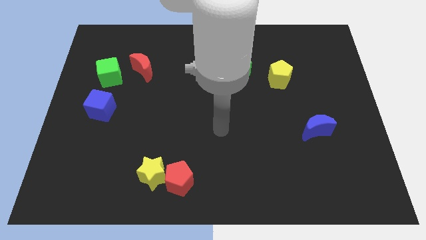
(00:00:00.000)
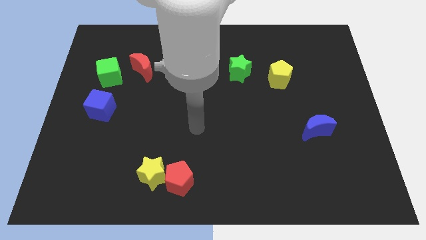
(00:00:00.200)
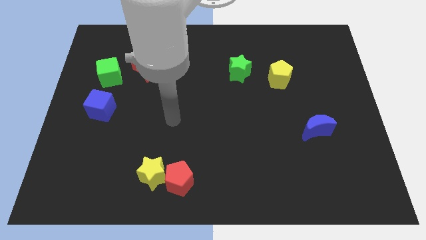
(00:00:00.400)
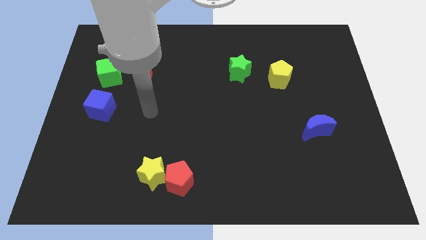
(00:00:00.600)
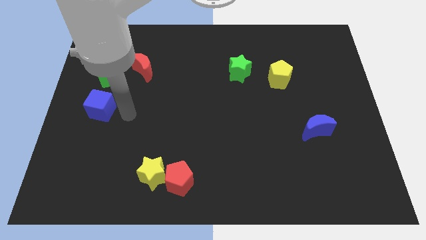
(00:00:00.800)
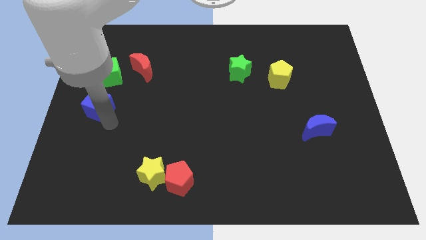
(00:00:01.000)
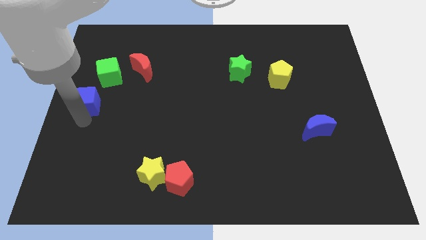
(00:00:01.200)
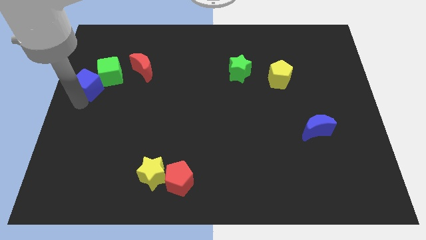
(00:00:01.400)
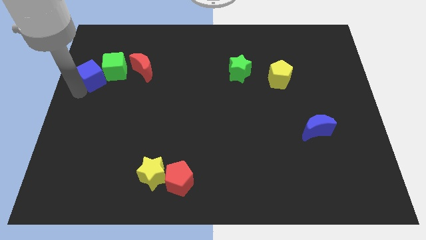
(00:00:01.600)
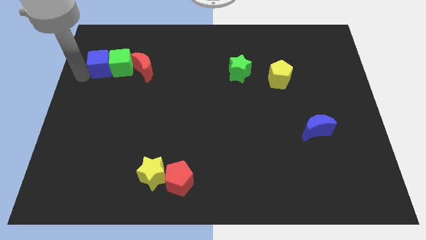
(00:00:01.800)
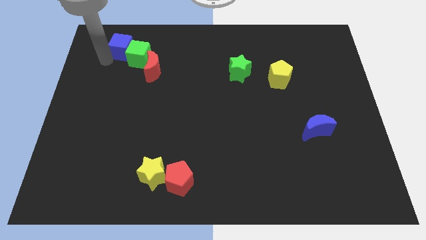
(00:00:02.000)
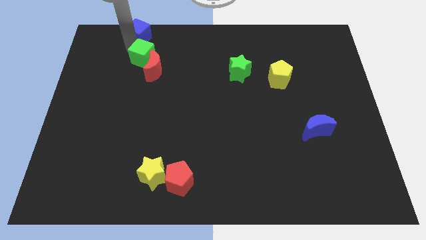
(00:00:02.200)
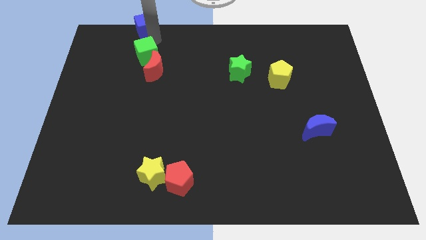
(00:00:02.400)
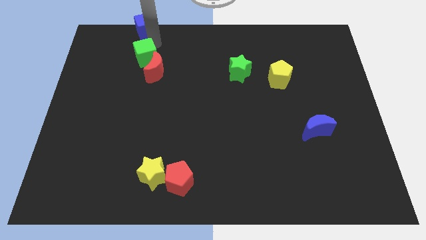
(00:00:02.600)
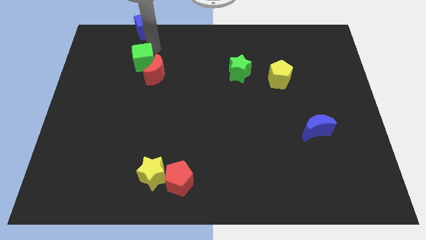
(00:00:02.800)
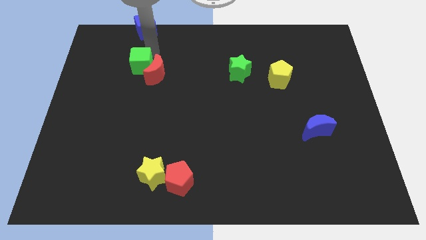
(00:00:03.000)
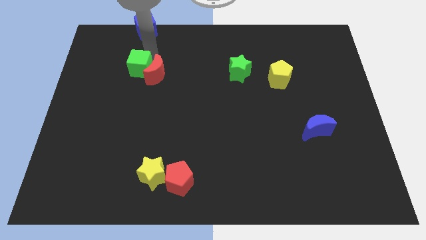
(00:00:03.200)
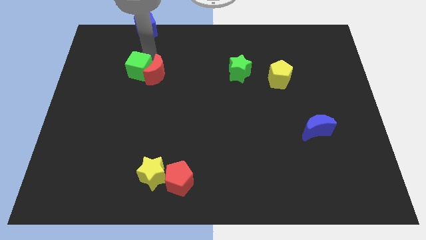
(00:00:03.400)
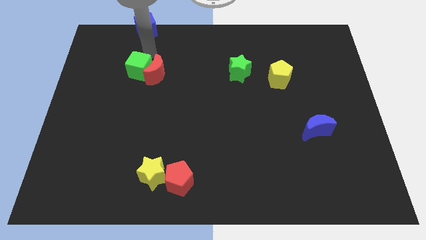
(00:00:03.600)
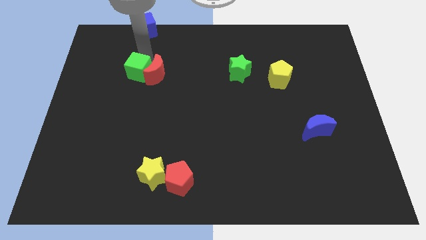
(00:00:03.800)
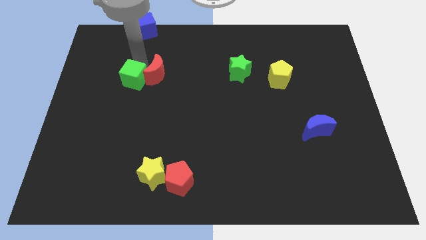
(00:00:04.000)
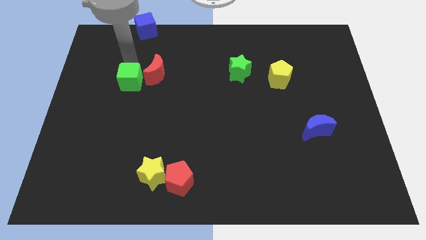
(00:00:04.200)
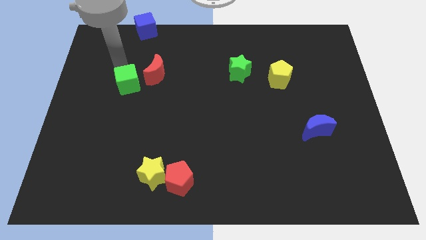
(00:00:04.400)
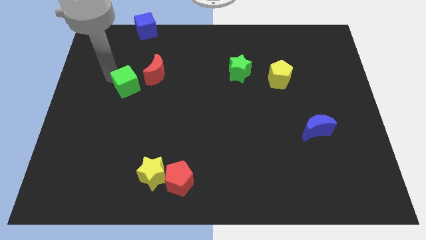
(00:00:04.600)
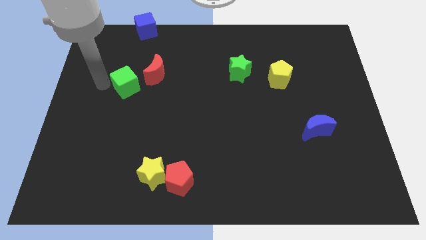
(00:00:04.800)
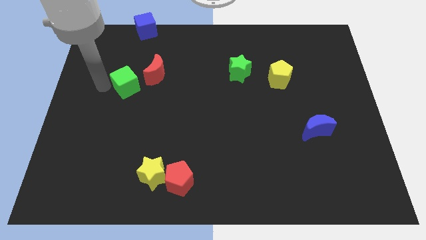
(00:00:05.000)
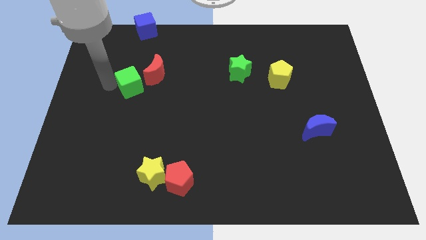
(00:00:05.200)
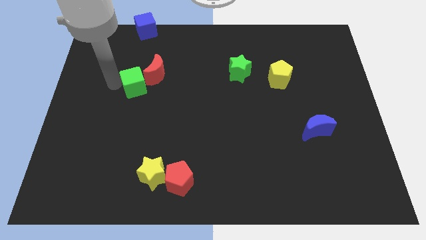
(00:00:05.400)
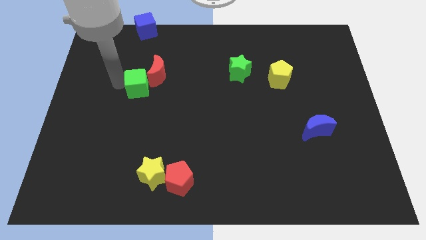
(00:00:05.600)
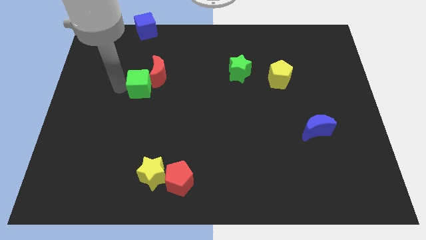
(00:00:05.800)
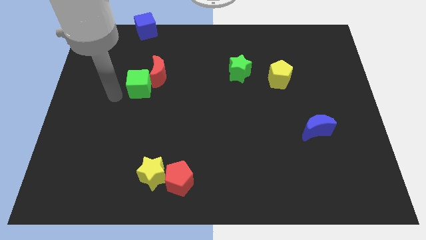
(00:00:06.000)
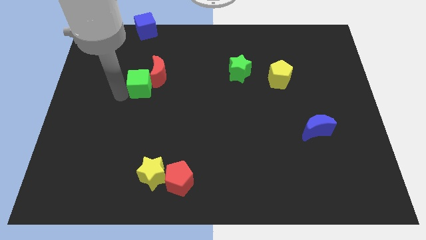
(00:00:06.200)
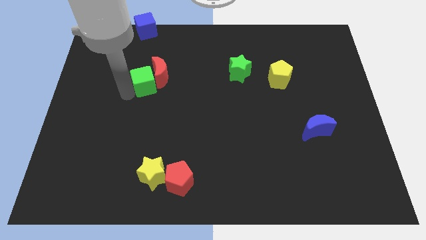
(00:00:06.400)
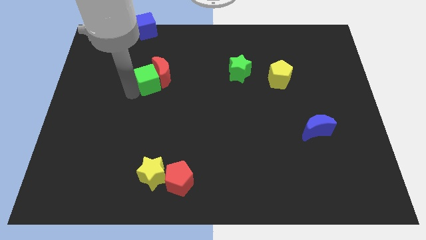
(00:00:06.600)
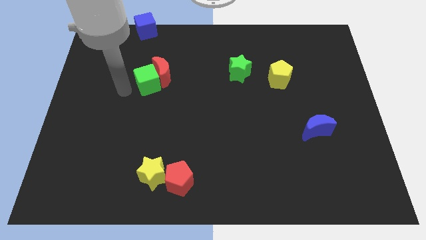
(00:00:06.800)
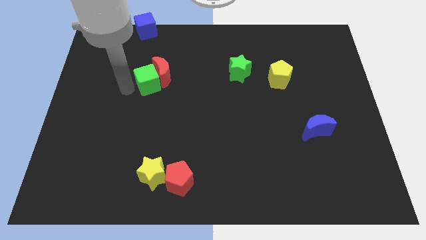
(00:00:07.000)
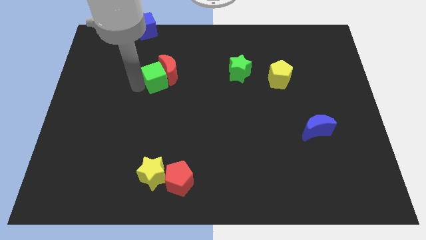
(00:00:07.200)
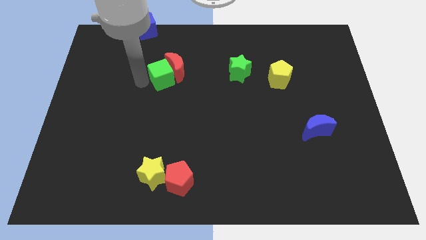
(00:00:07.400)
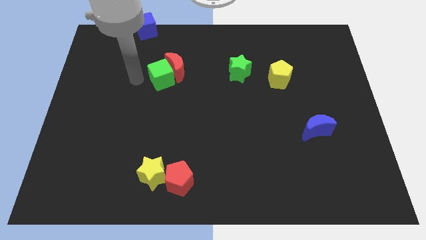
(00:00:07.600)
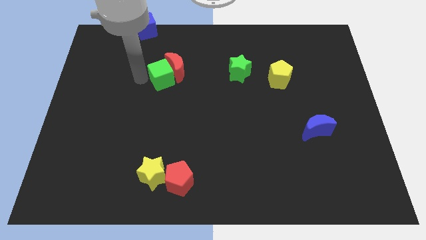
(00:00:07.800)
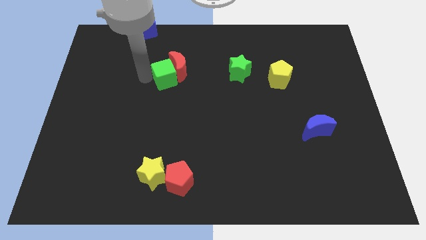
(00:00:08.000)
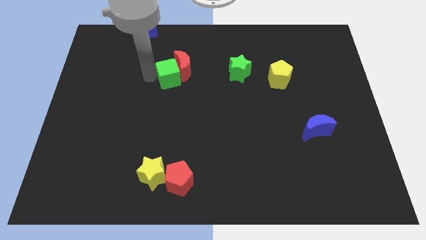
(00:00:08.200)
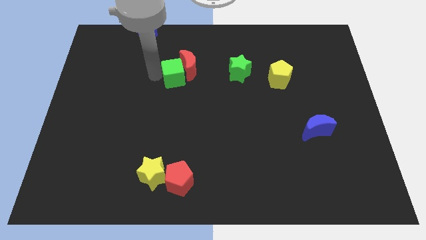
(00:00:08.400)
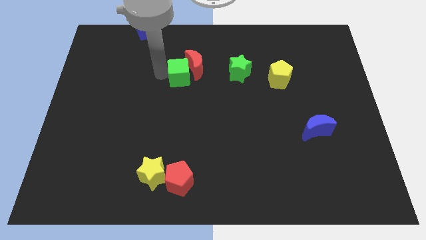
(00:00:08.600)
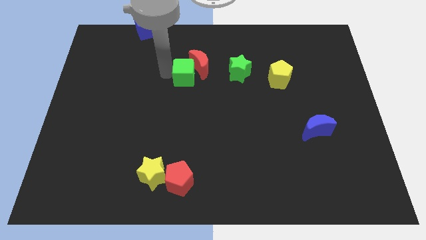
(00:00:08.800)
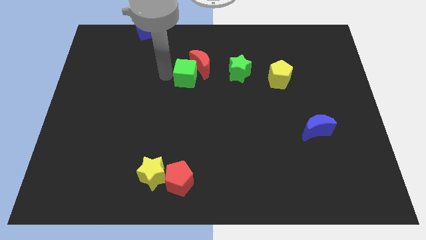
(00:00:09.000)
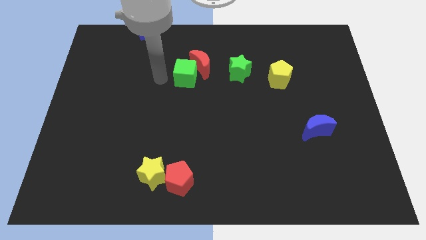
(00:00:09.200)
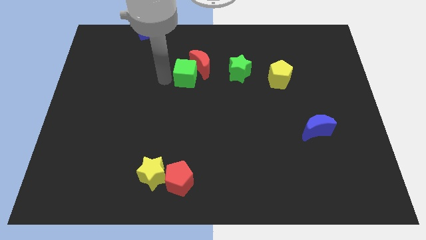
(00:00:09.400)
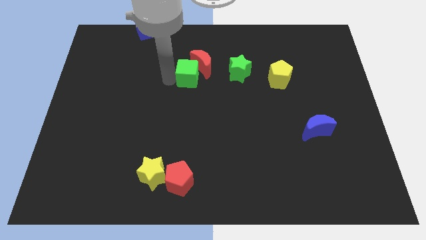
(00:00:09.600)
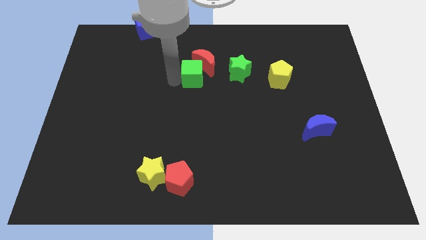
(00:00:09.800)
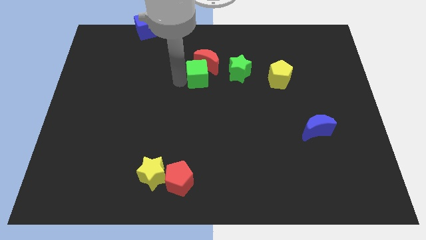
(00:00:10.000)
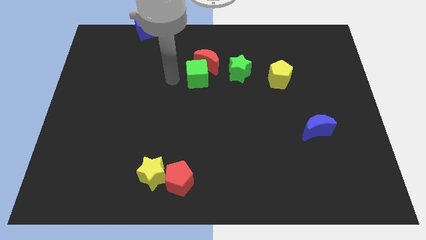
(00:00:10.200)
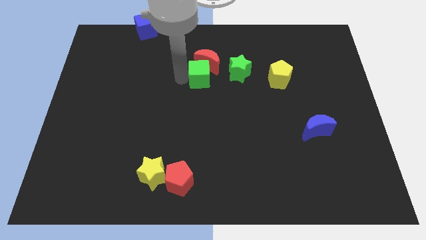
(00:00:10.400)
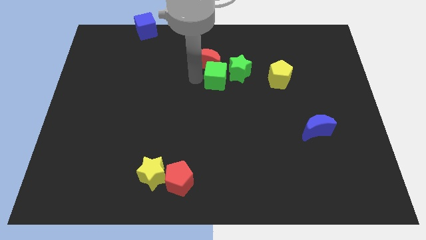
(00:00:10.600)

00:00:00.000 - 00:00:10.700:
push the green cube to the left side of the yellow pentagon

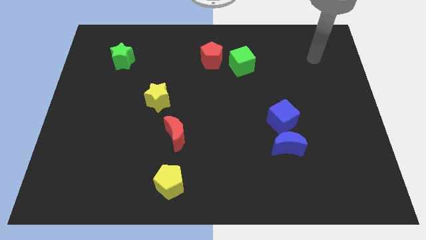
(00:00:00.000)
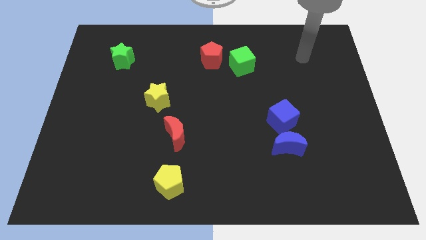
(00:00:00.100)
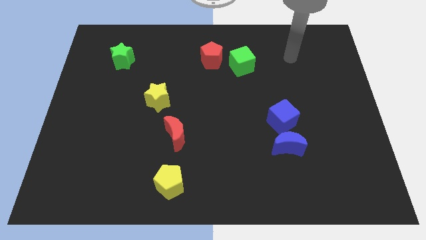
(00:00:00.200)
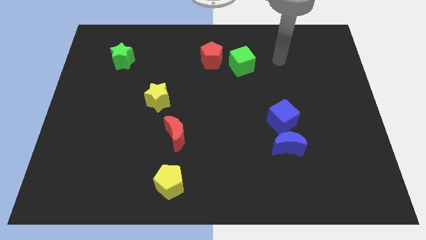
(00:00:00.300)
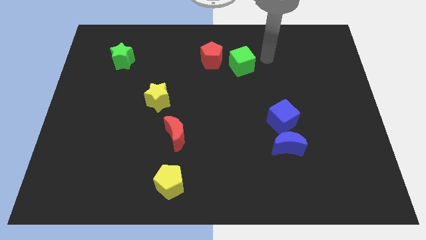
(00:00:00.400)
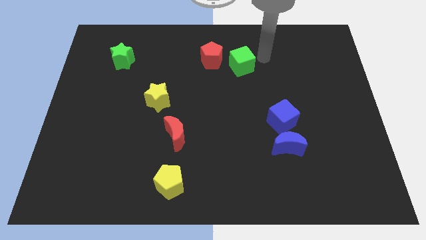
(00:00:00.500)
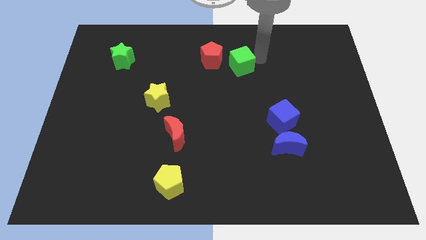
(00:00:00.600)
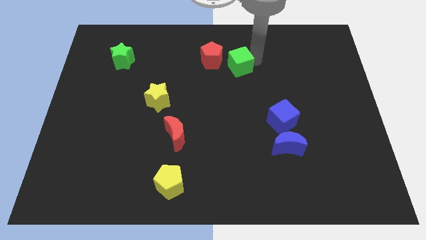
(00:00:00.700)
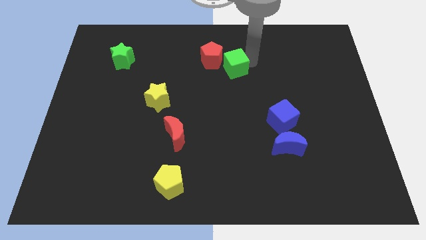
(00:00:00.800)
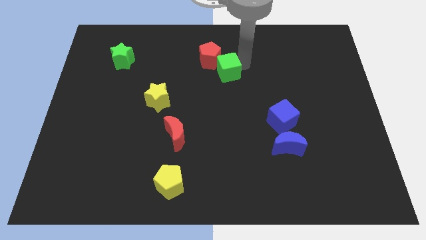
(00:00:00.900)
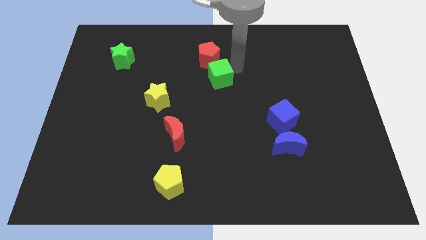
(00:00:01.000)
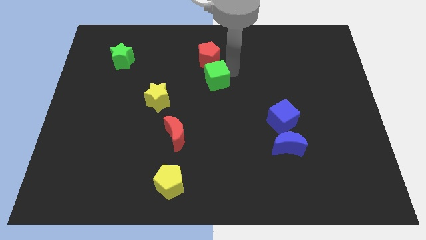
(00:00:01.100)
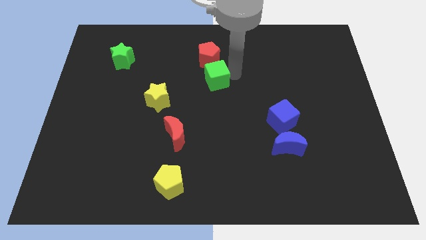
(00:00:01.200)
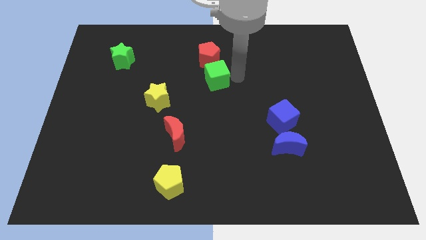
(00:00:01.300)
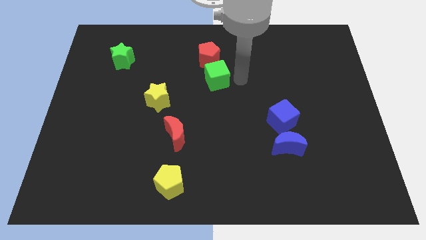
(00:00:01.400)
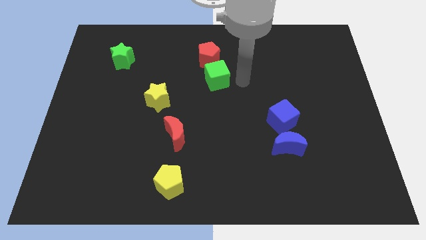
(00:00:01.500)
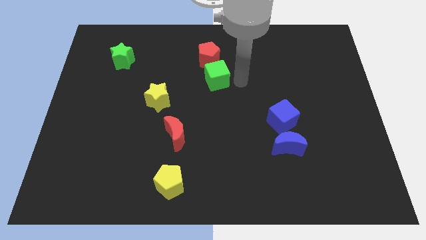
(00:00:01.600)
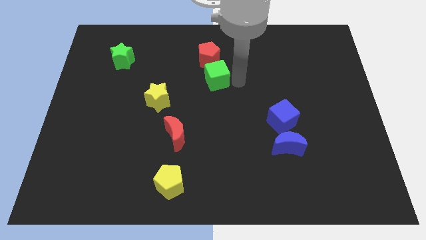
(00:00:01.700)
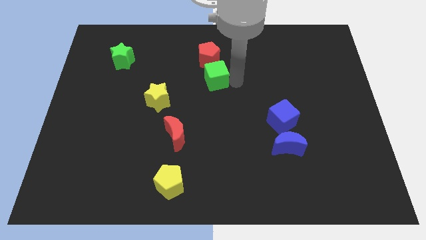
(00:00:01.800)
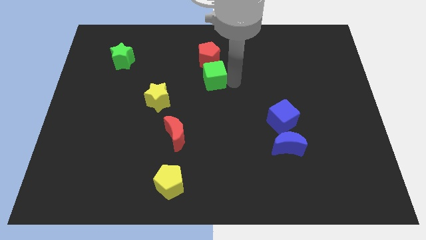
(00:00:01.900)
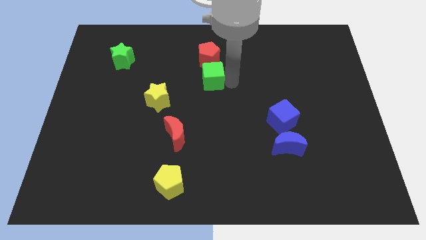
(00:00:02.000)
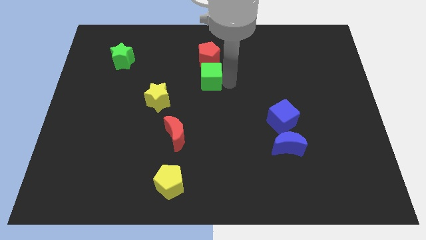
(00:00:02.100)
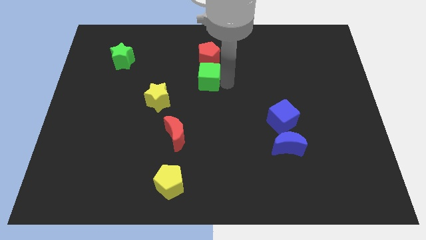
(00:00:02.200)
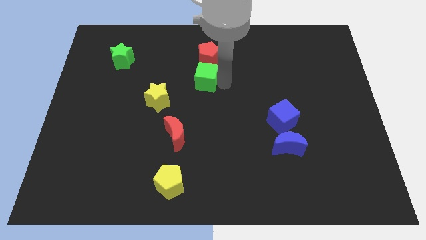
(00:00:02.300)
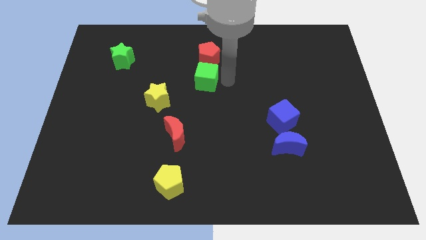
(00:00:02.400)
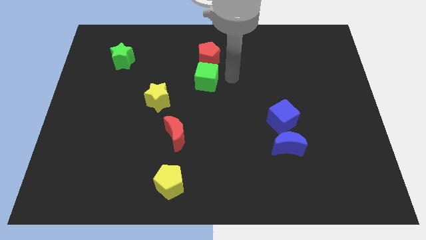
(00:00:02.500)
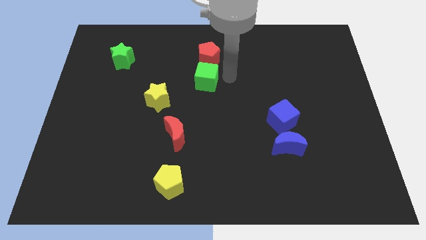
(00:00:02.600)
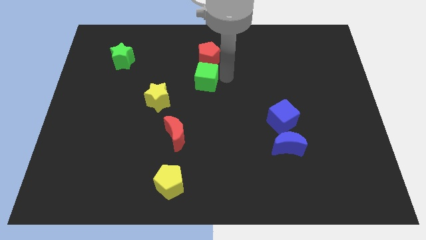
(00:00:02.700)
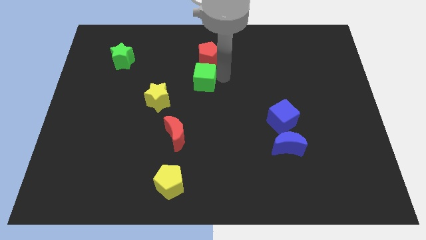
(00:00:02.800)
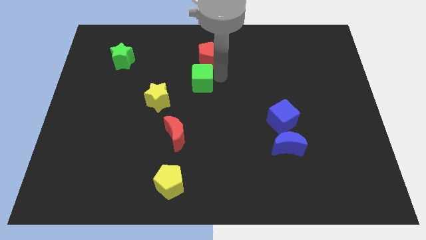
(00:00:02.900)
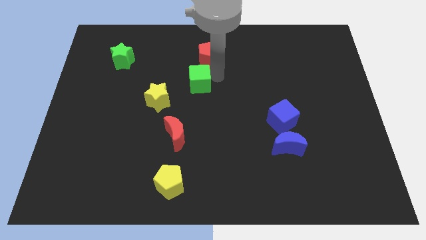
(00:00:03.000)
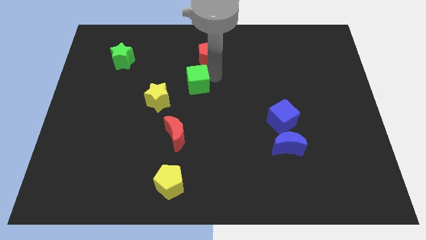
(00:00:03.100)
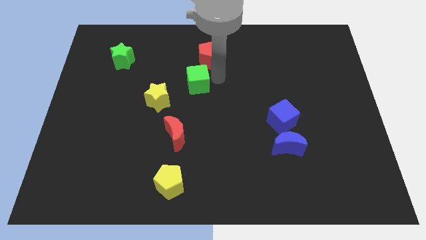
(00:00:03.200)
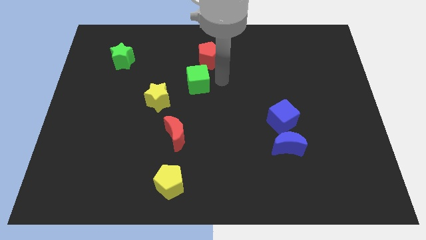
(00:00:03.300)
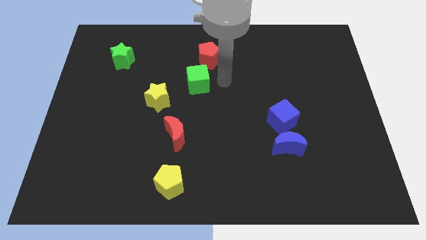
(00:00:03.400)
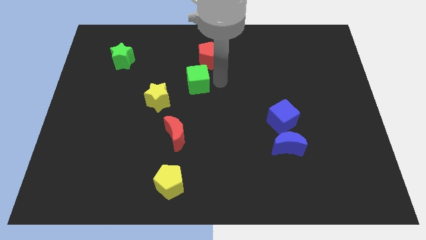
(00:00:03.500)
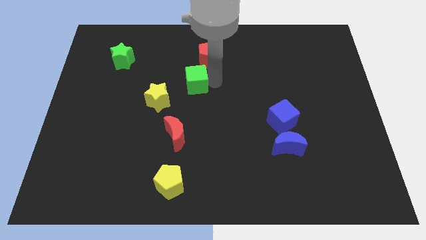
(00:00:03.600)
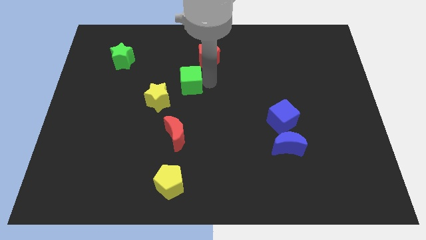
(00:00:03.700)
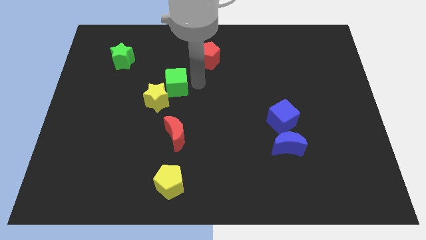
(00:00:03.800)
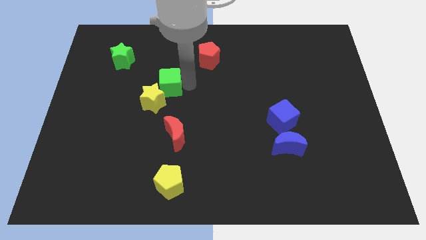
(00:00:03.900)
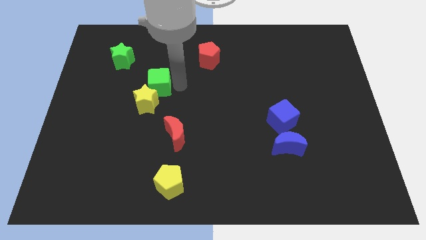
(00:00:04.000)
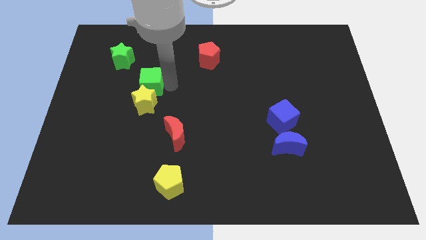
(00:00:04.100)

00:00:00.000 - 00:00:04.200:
slide the green cube to the top left side of the yellow star
